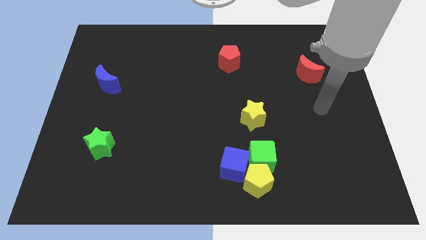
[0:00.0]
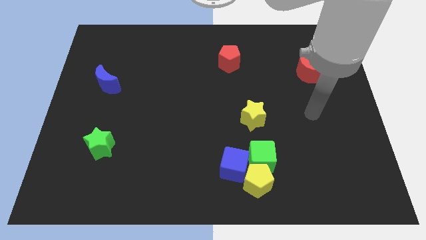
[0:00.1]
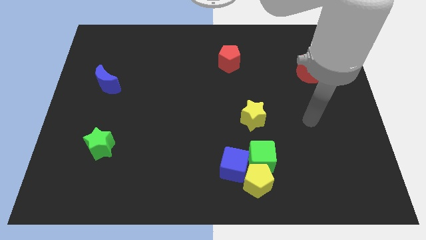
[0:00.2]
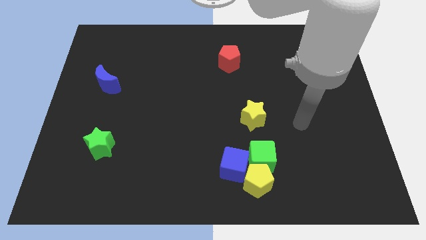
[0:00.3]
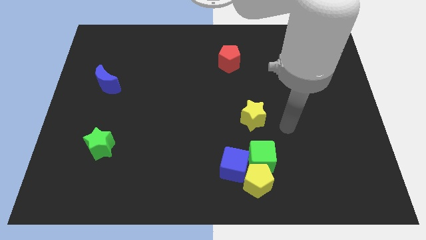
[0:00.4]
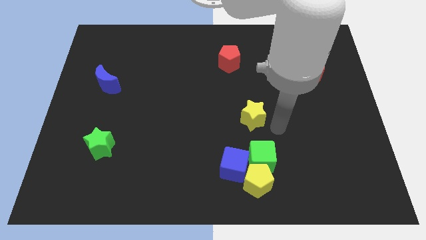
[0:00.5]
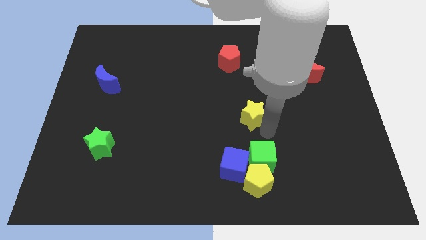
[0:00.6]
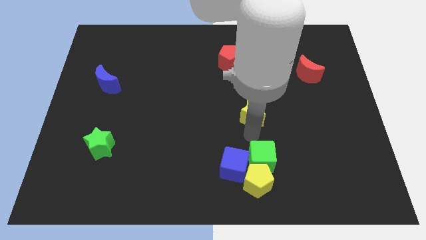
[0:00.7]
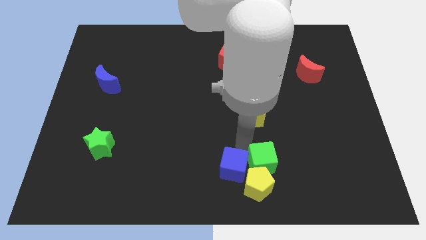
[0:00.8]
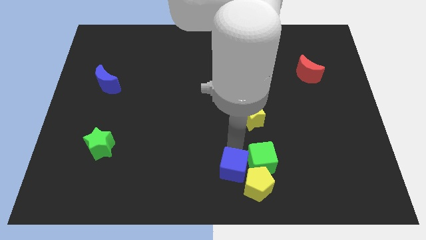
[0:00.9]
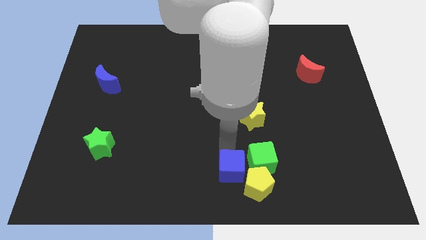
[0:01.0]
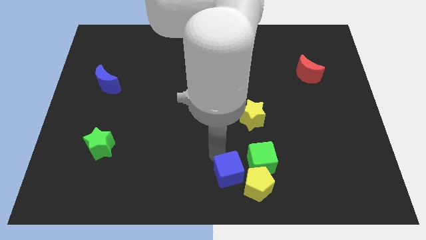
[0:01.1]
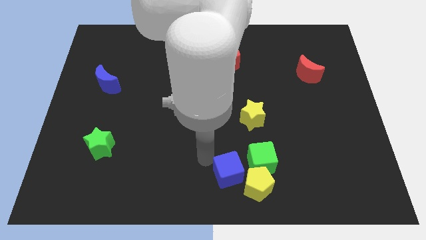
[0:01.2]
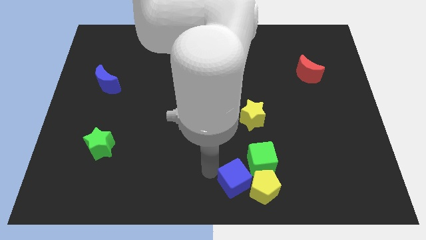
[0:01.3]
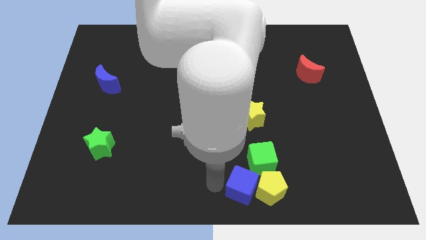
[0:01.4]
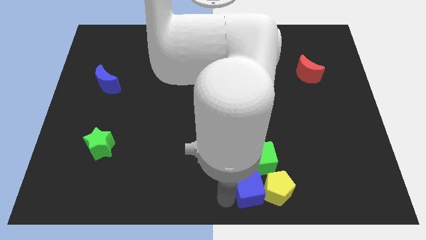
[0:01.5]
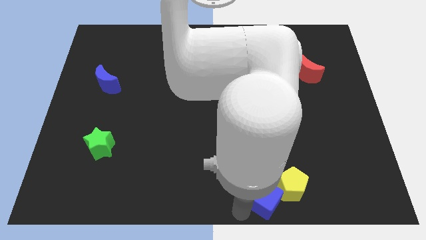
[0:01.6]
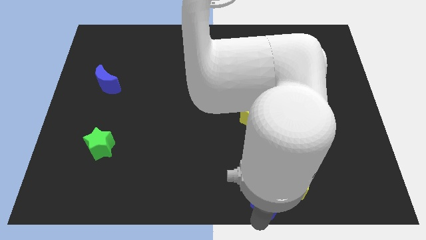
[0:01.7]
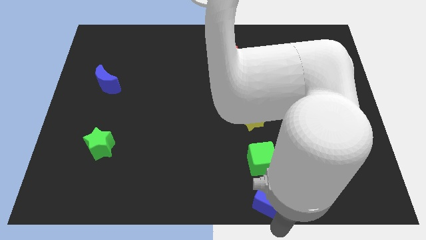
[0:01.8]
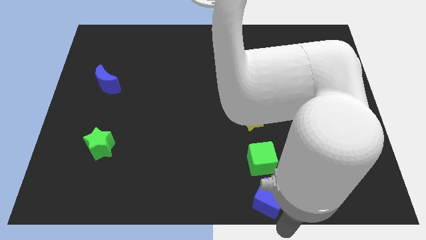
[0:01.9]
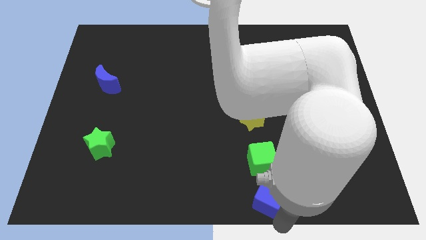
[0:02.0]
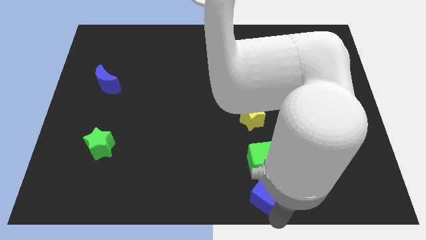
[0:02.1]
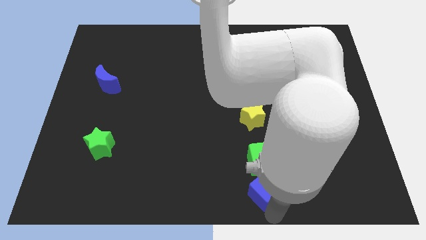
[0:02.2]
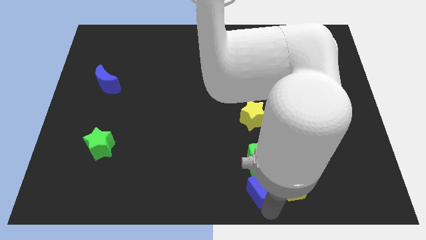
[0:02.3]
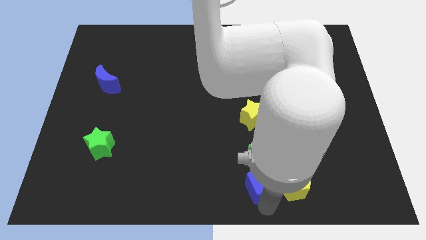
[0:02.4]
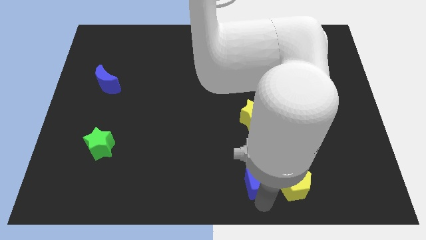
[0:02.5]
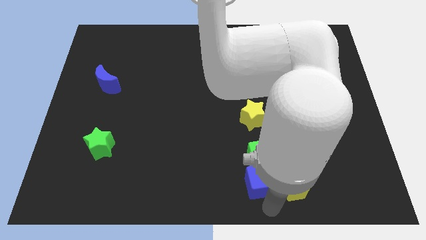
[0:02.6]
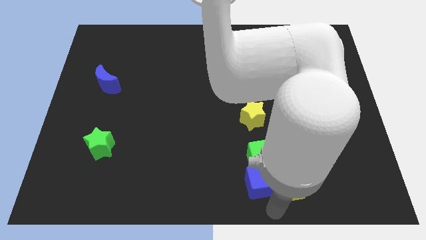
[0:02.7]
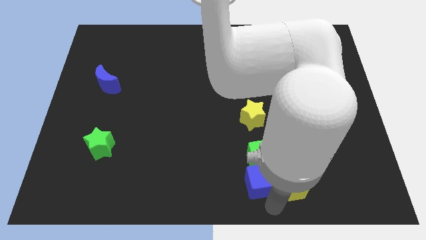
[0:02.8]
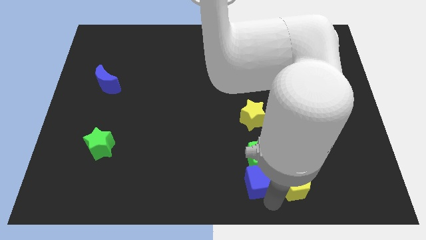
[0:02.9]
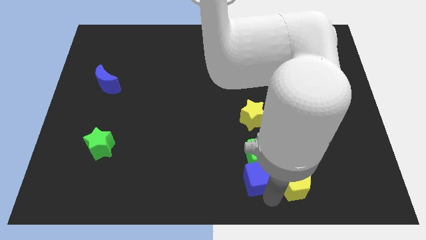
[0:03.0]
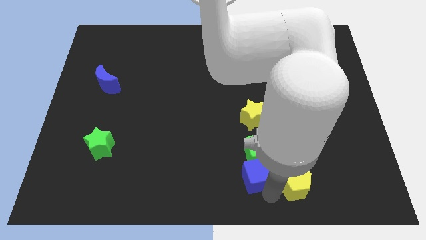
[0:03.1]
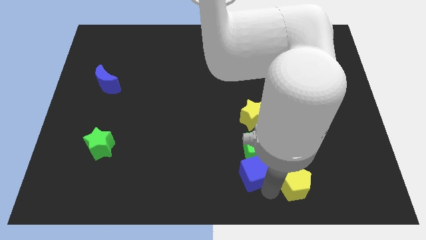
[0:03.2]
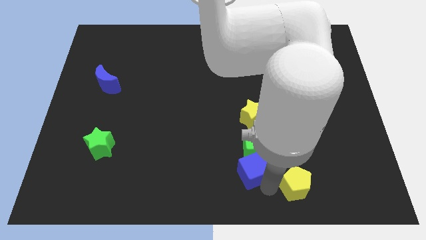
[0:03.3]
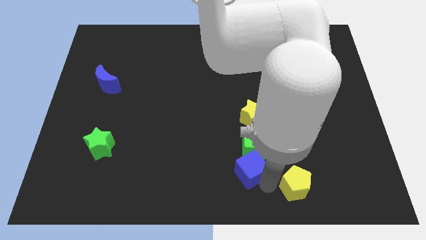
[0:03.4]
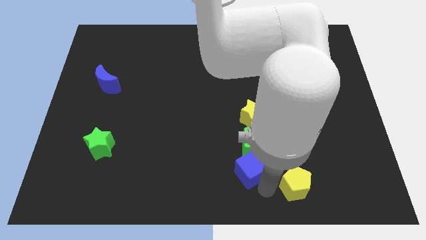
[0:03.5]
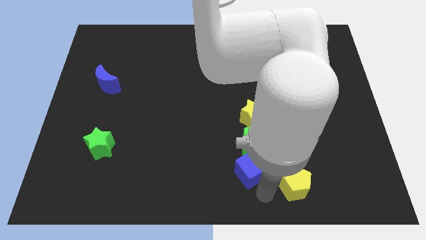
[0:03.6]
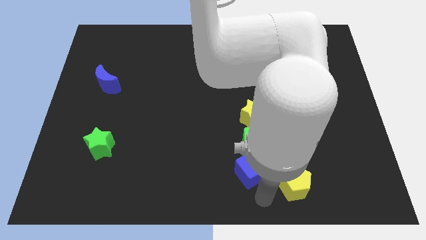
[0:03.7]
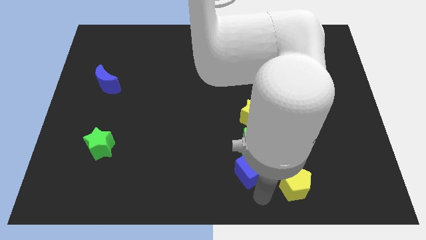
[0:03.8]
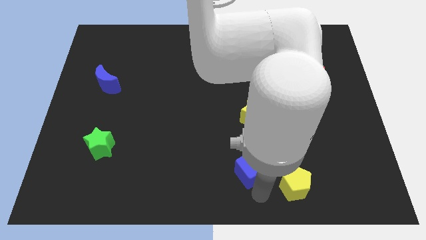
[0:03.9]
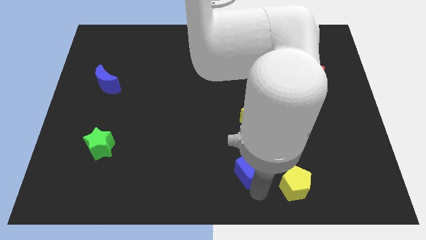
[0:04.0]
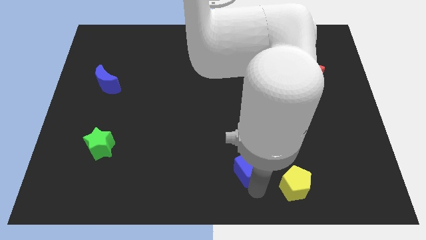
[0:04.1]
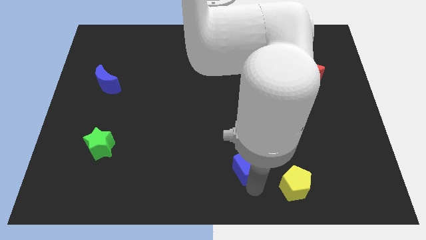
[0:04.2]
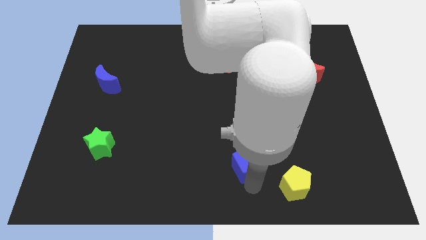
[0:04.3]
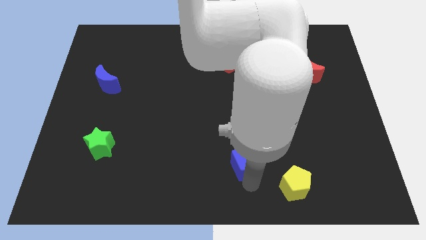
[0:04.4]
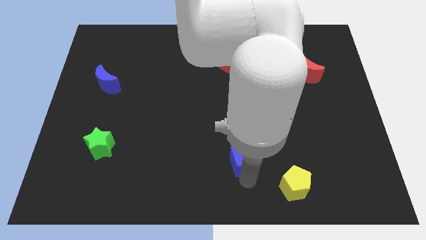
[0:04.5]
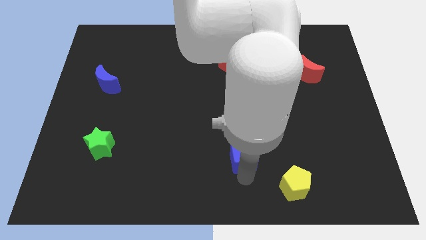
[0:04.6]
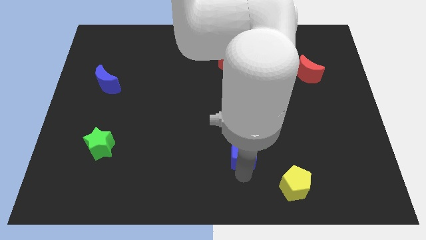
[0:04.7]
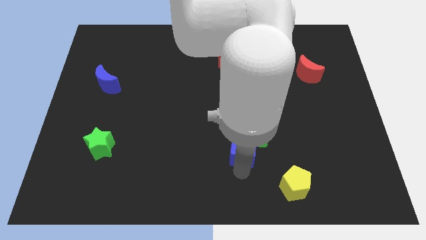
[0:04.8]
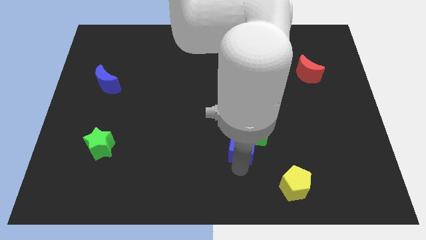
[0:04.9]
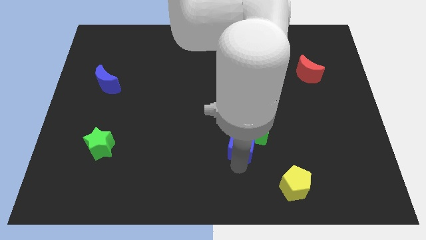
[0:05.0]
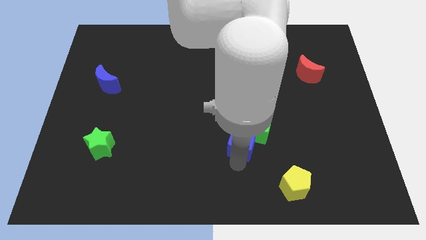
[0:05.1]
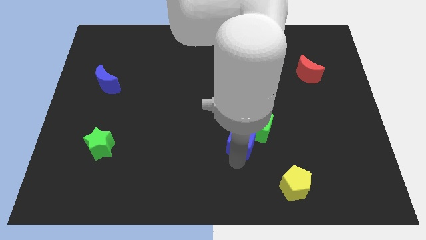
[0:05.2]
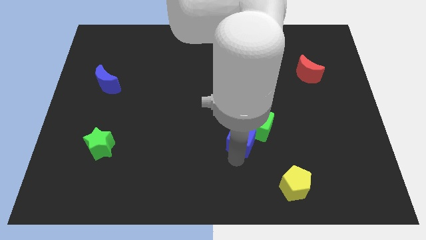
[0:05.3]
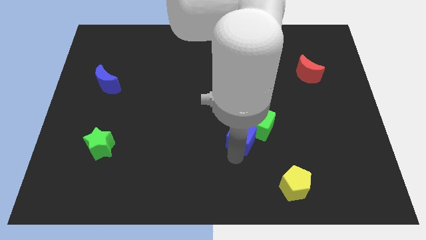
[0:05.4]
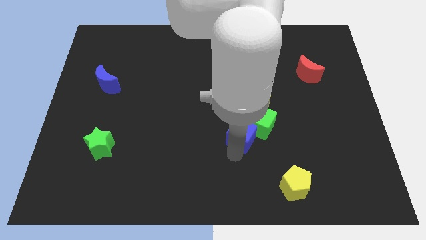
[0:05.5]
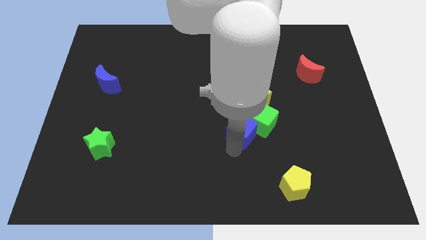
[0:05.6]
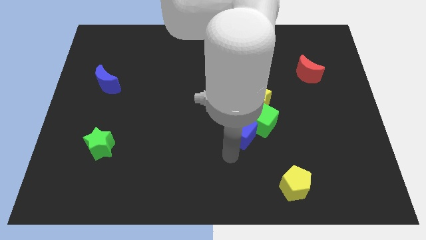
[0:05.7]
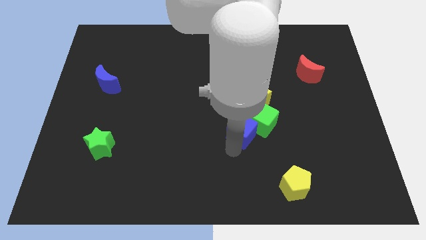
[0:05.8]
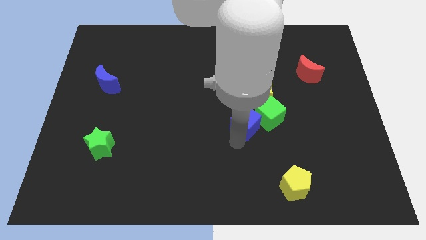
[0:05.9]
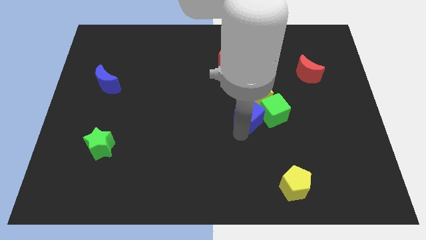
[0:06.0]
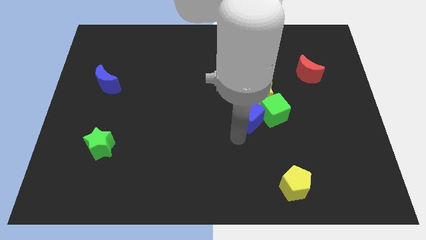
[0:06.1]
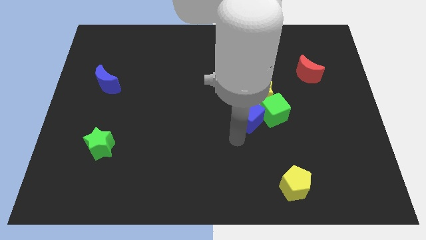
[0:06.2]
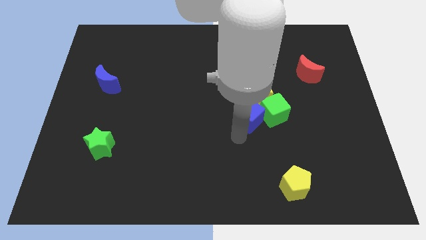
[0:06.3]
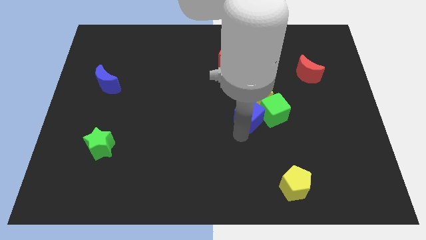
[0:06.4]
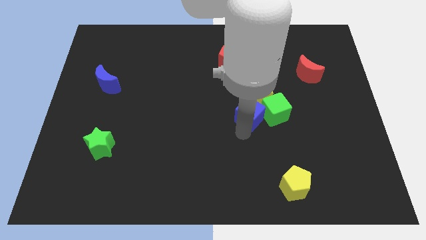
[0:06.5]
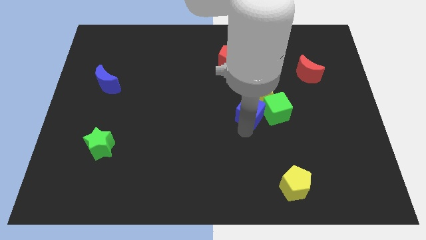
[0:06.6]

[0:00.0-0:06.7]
move the blue cube towards the yellow star

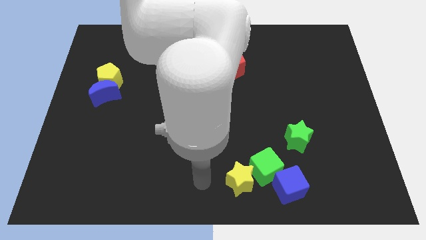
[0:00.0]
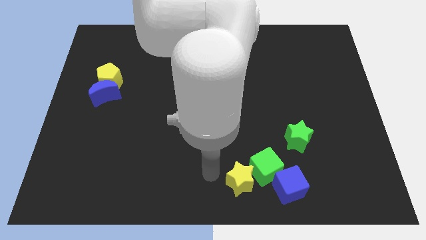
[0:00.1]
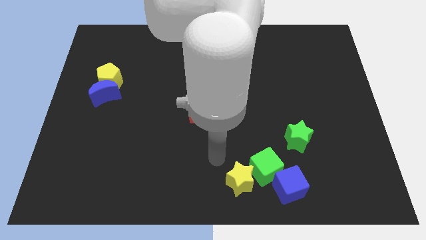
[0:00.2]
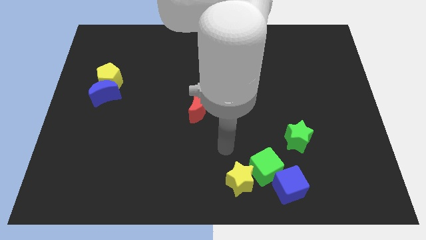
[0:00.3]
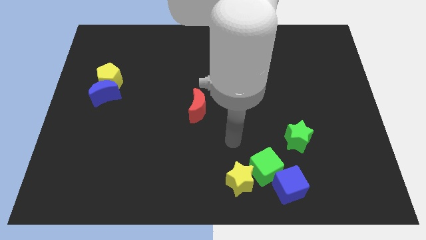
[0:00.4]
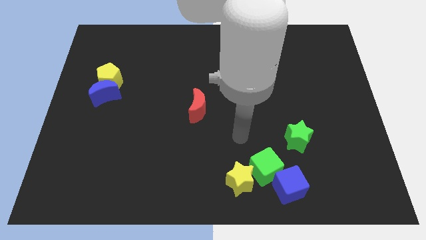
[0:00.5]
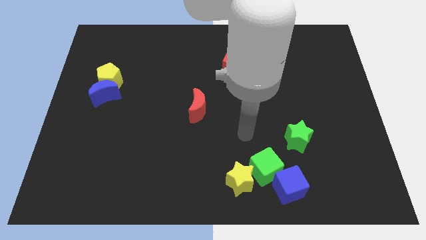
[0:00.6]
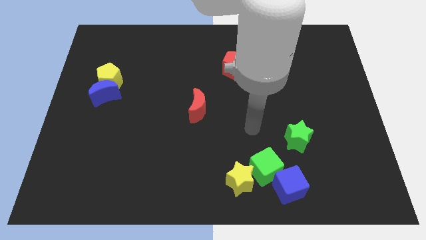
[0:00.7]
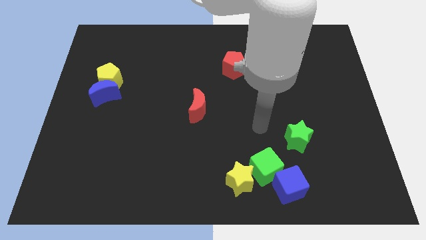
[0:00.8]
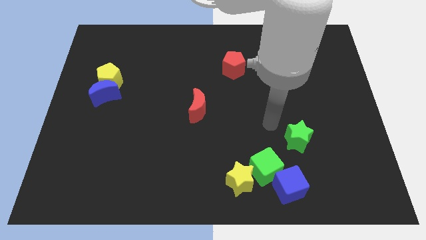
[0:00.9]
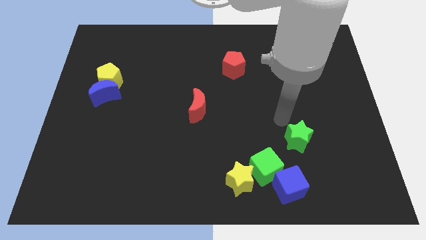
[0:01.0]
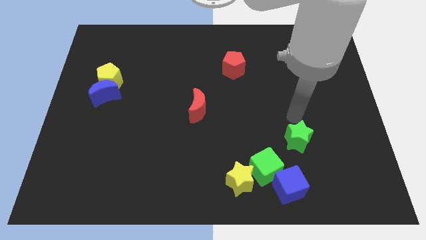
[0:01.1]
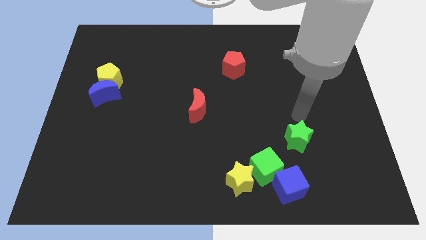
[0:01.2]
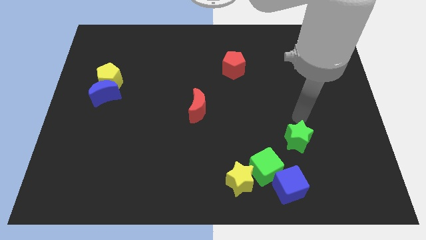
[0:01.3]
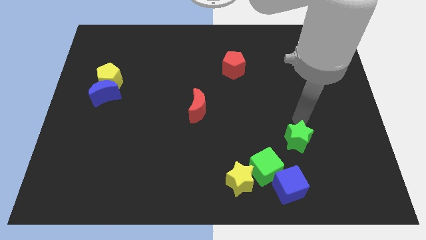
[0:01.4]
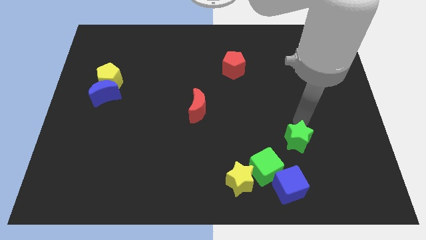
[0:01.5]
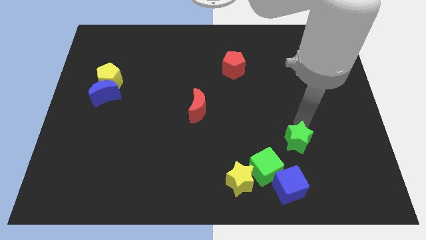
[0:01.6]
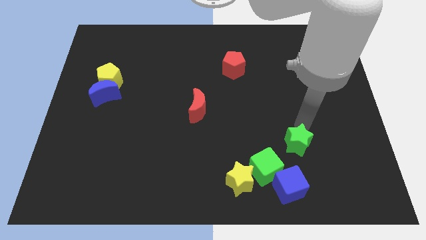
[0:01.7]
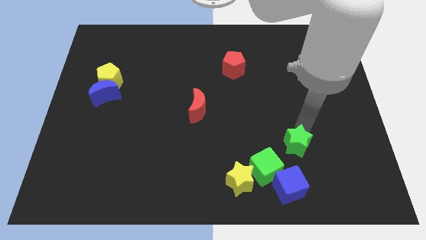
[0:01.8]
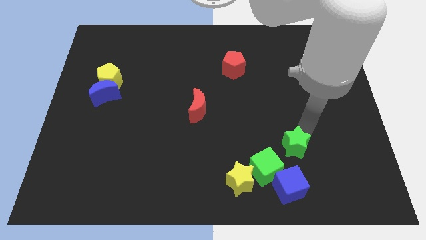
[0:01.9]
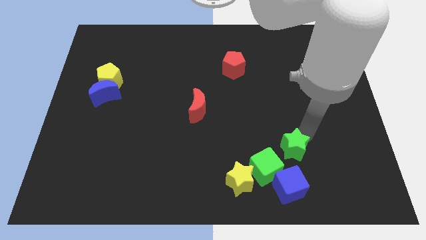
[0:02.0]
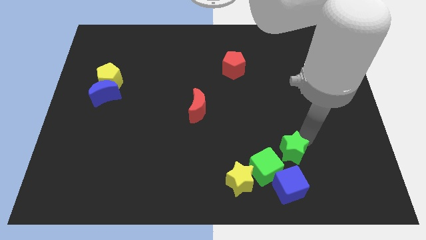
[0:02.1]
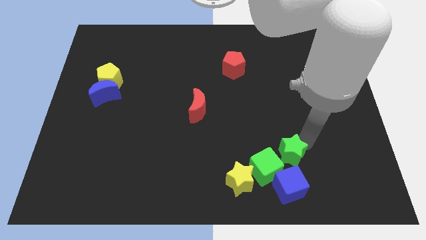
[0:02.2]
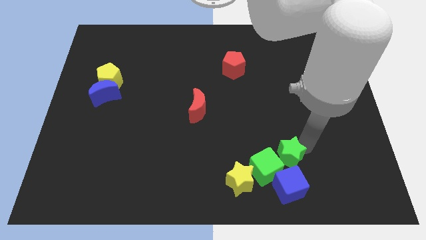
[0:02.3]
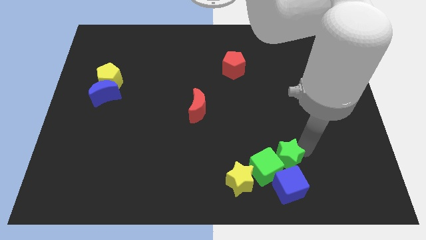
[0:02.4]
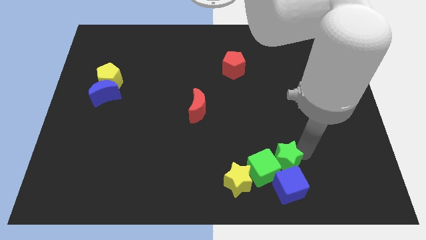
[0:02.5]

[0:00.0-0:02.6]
move the green star next to the blue cube
